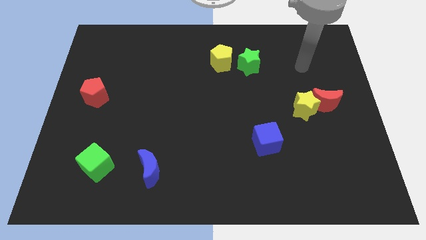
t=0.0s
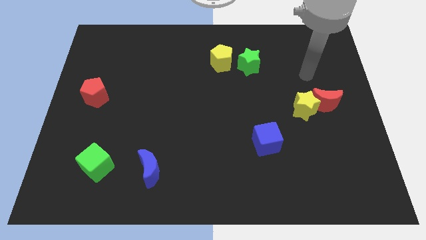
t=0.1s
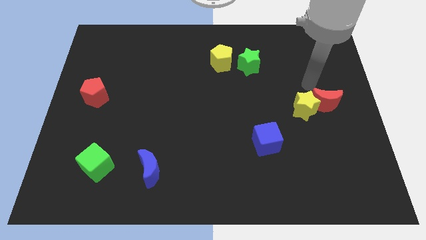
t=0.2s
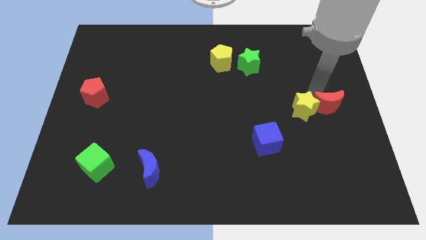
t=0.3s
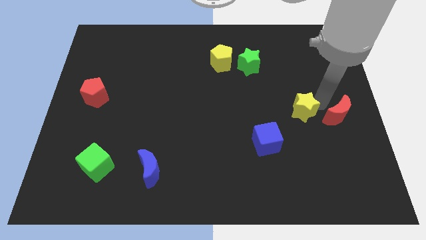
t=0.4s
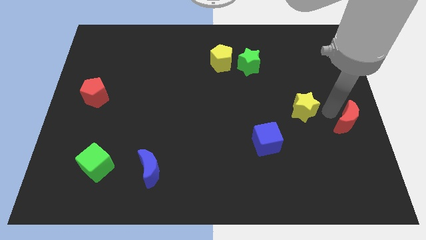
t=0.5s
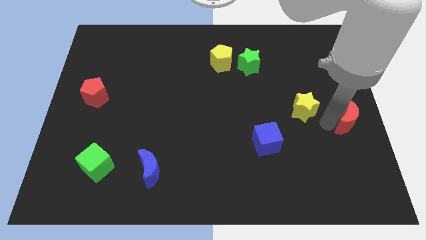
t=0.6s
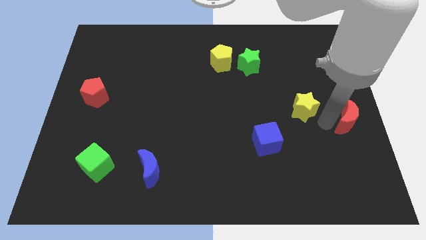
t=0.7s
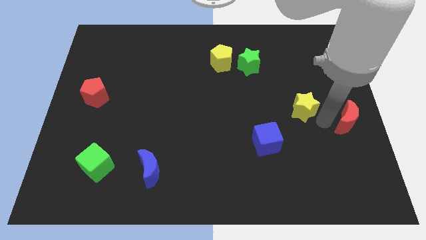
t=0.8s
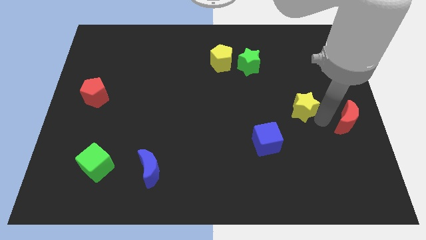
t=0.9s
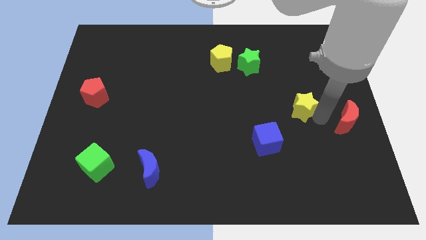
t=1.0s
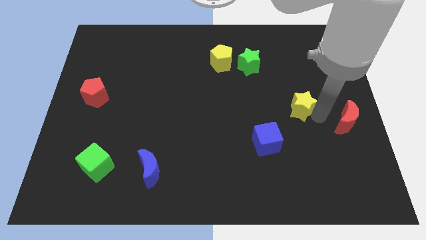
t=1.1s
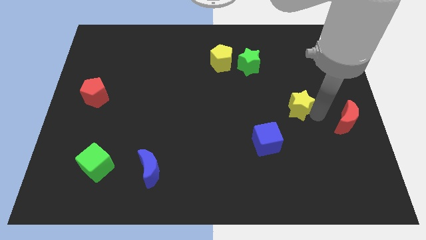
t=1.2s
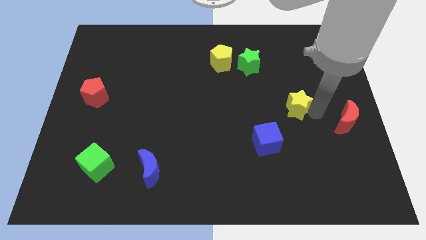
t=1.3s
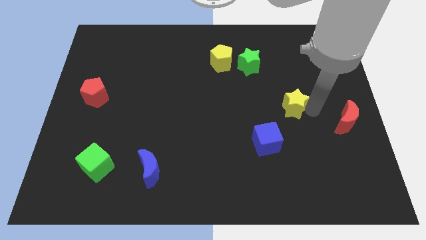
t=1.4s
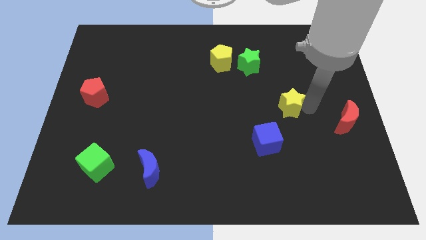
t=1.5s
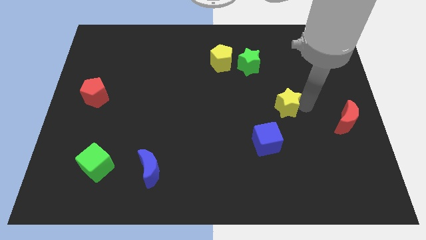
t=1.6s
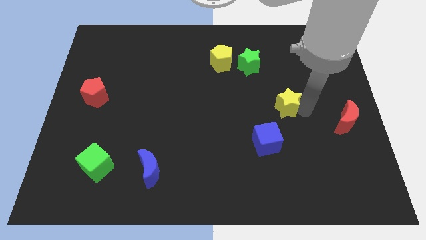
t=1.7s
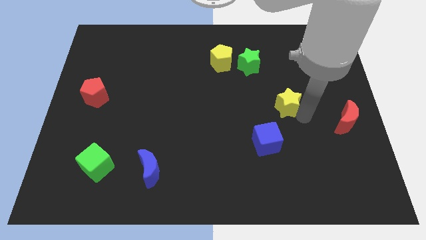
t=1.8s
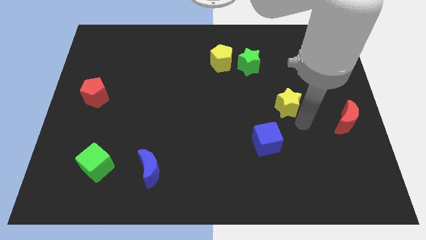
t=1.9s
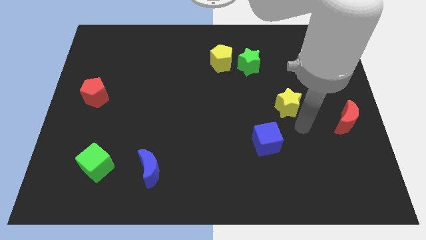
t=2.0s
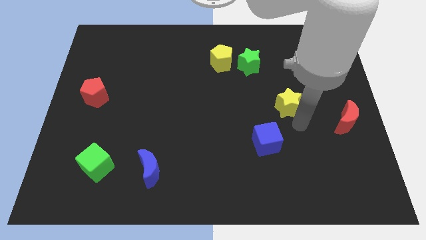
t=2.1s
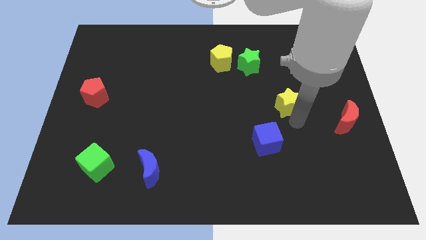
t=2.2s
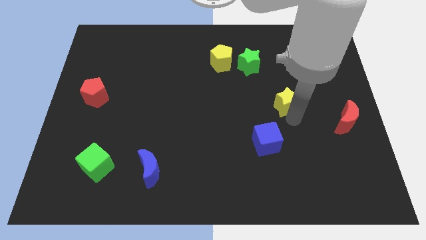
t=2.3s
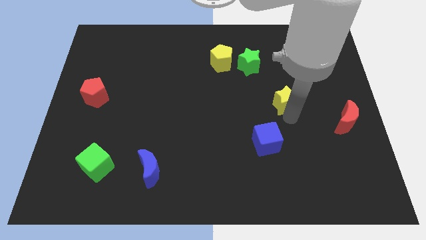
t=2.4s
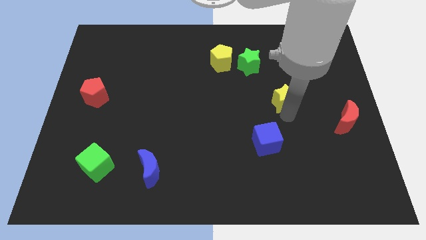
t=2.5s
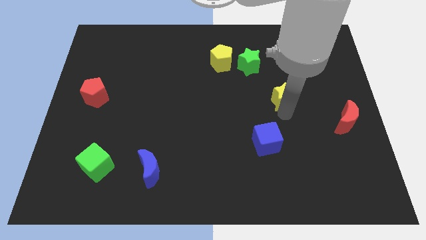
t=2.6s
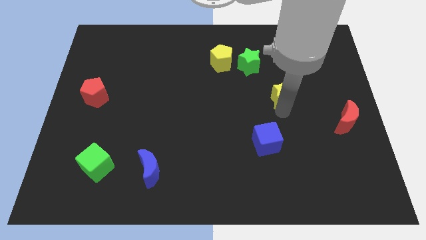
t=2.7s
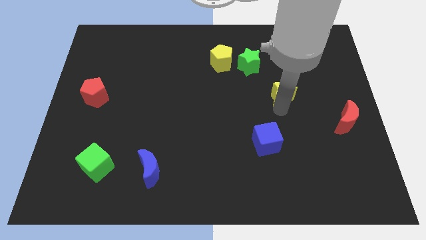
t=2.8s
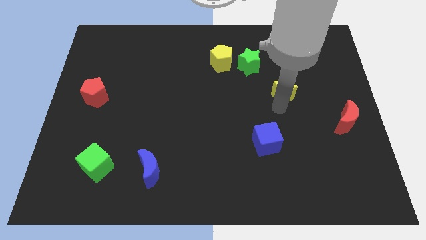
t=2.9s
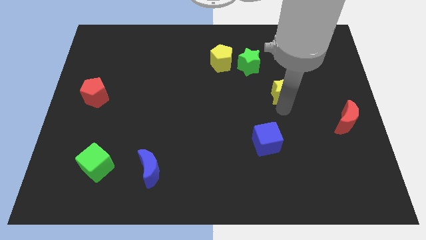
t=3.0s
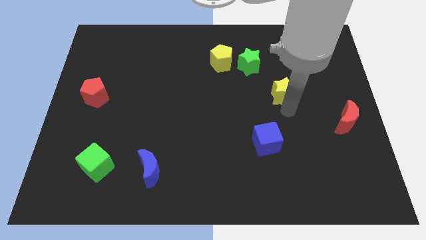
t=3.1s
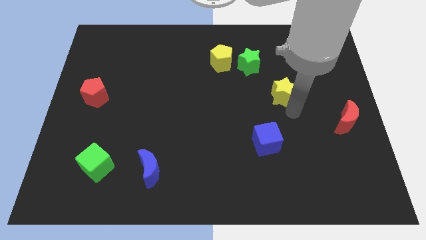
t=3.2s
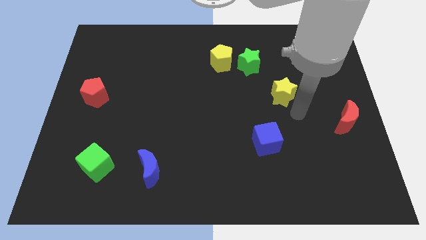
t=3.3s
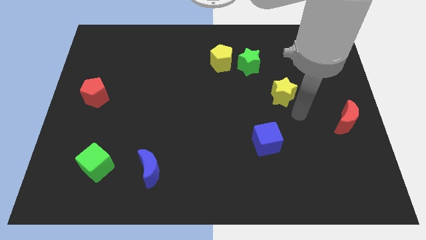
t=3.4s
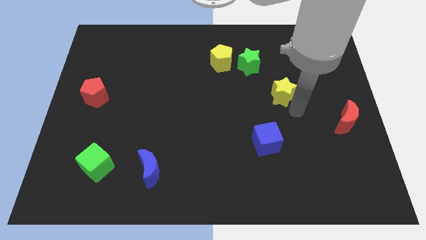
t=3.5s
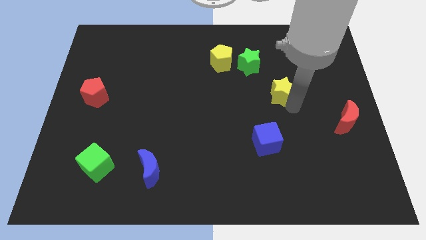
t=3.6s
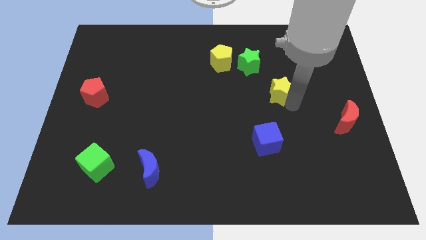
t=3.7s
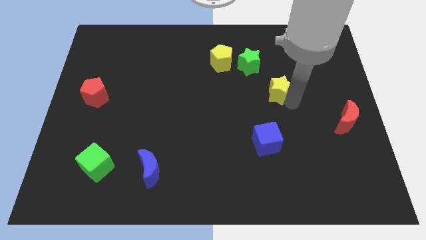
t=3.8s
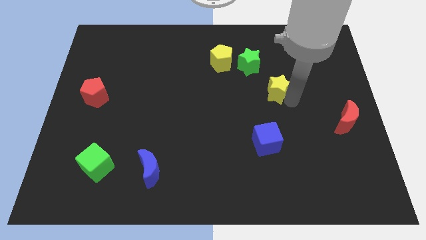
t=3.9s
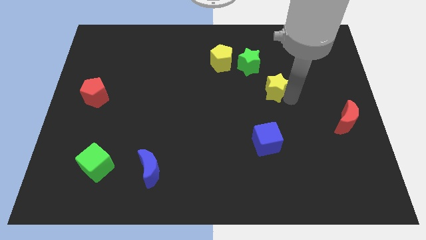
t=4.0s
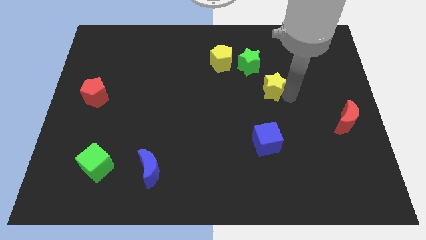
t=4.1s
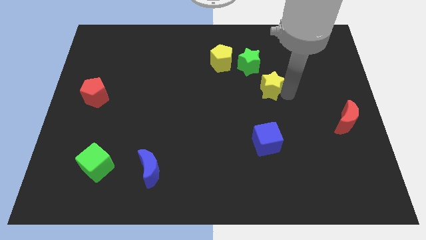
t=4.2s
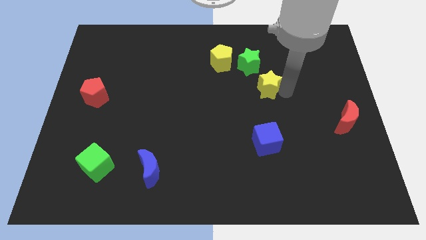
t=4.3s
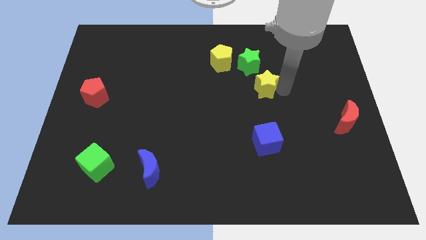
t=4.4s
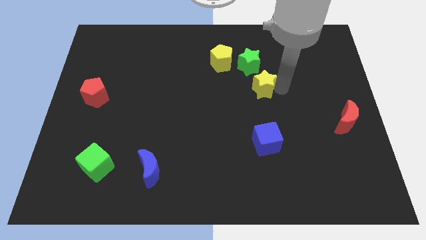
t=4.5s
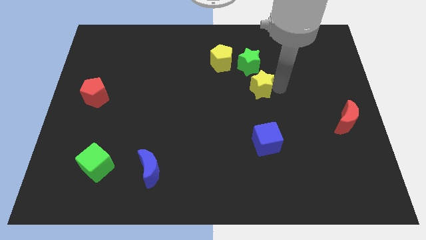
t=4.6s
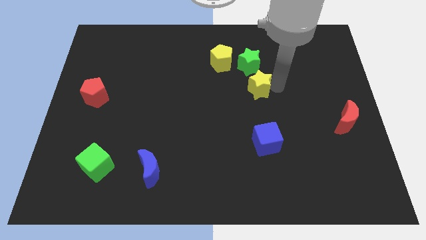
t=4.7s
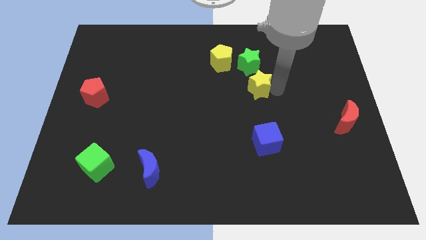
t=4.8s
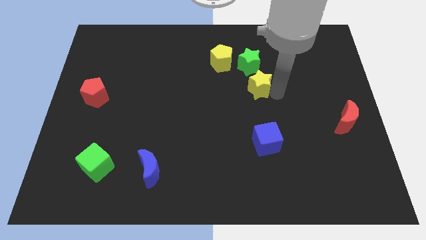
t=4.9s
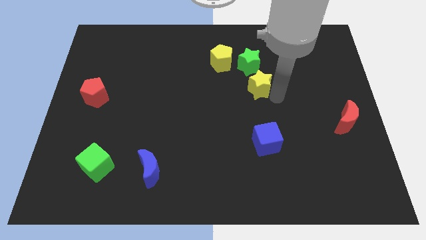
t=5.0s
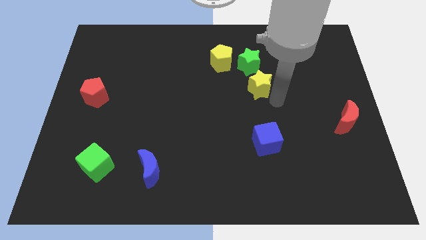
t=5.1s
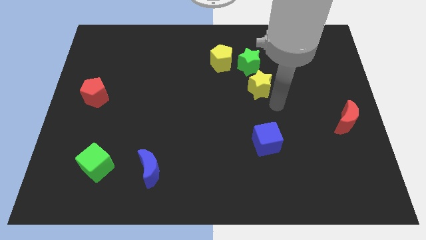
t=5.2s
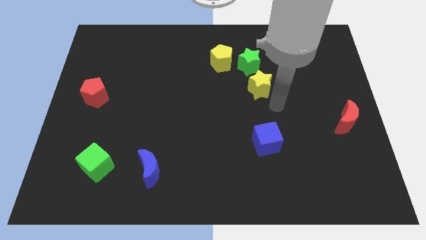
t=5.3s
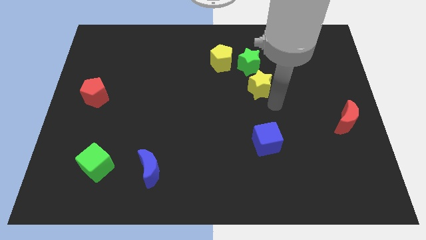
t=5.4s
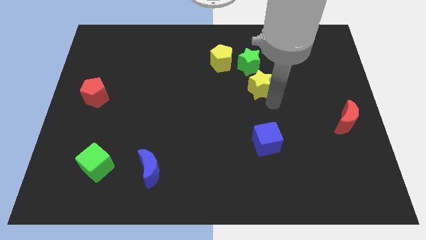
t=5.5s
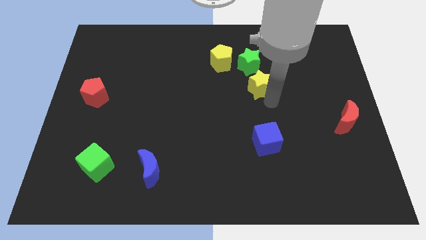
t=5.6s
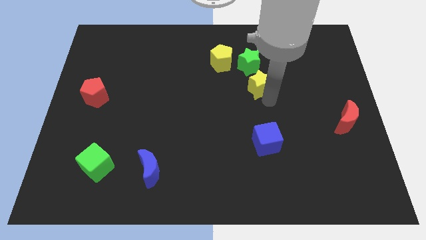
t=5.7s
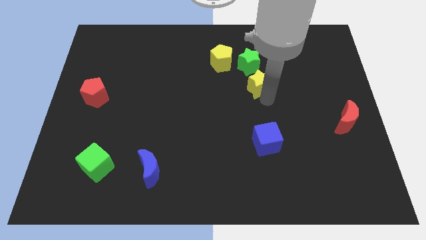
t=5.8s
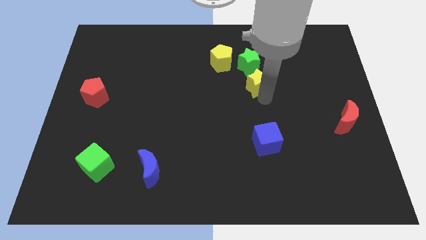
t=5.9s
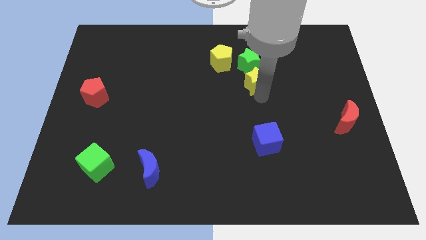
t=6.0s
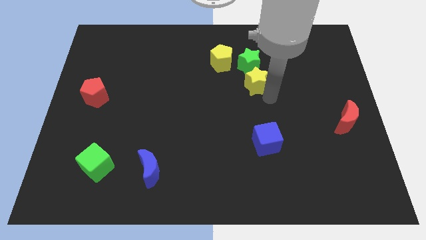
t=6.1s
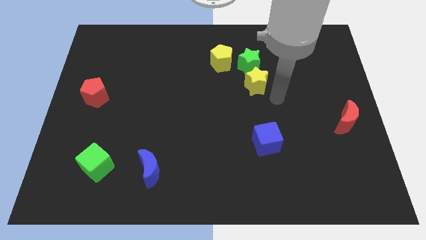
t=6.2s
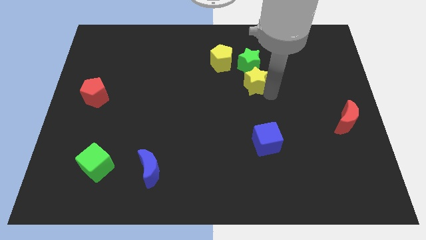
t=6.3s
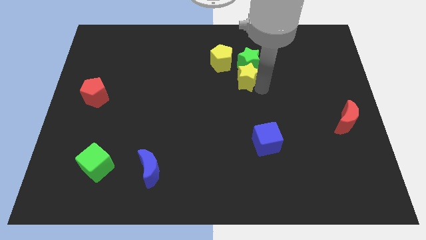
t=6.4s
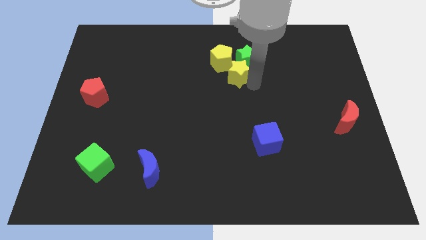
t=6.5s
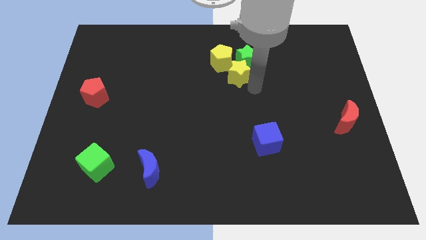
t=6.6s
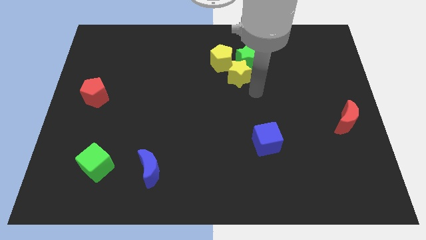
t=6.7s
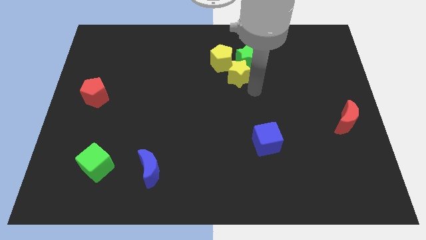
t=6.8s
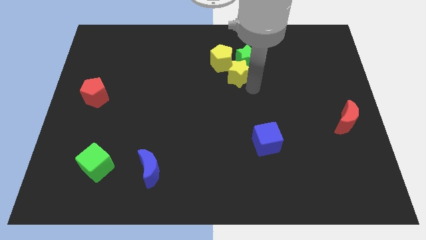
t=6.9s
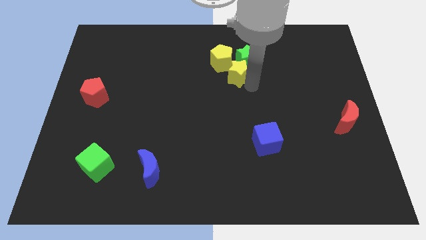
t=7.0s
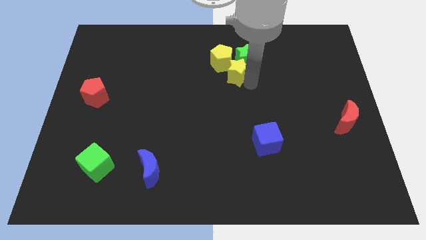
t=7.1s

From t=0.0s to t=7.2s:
push the yellow star next to the yellow pentagon
